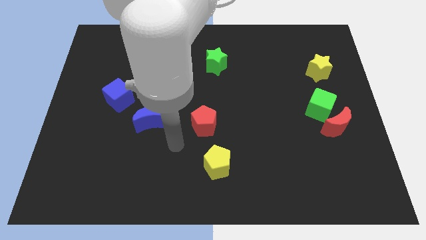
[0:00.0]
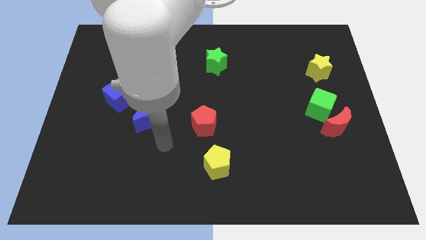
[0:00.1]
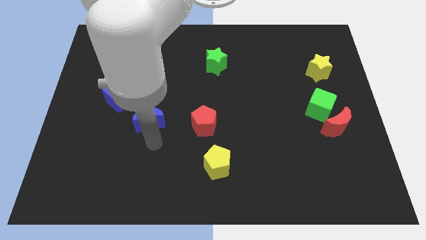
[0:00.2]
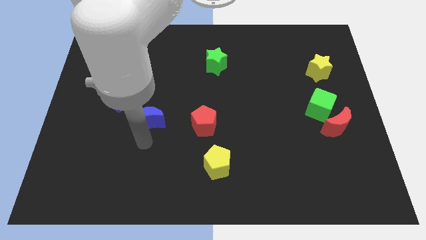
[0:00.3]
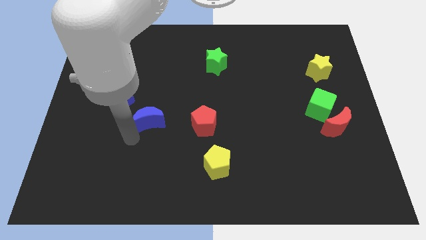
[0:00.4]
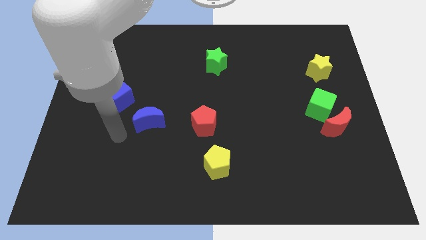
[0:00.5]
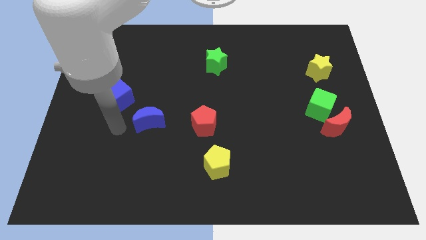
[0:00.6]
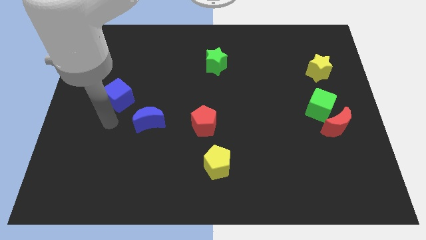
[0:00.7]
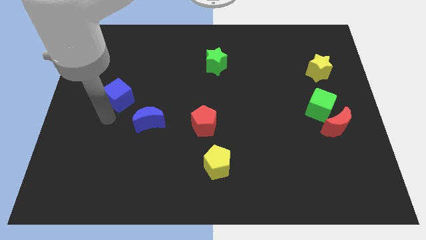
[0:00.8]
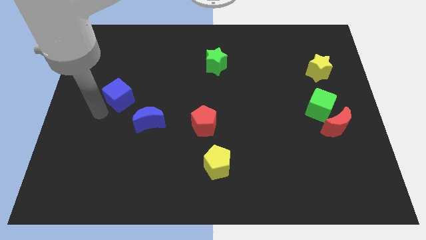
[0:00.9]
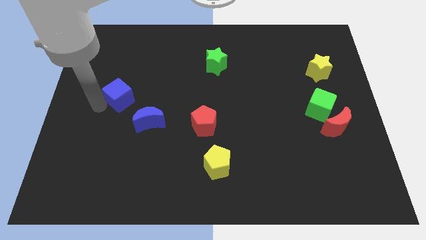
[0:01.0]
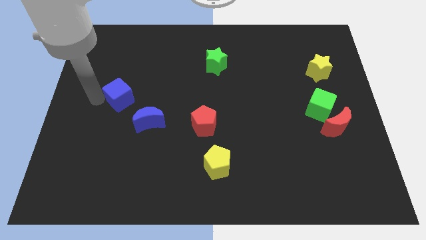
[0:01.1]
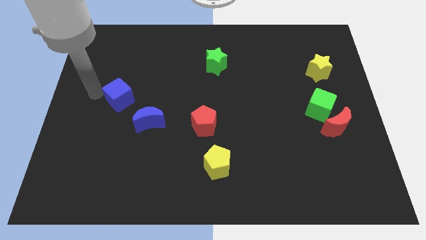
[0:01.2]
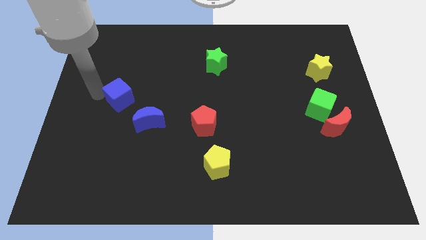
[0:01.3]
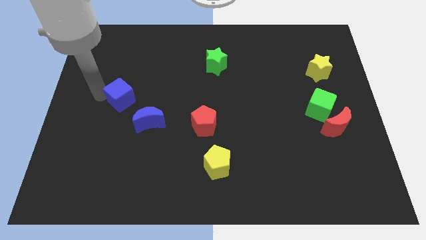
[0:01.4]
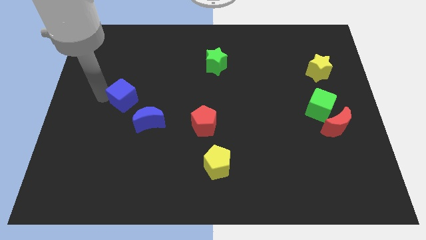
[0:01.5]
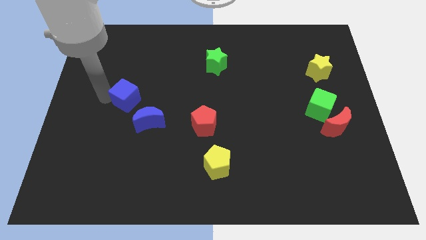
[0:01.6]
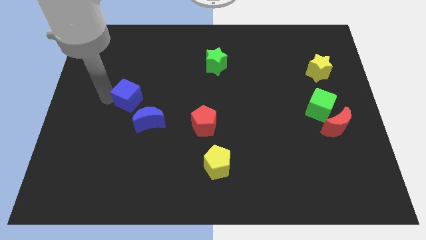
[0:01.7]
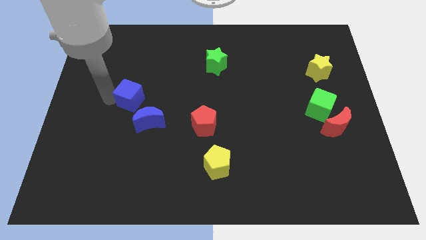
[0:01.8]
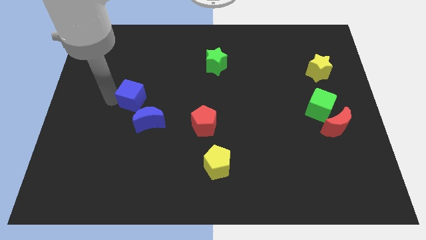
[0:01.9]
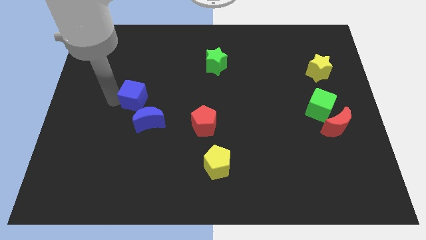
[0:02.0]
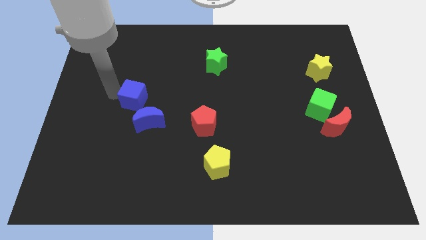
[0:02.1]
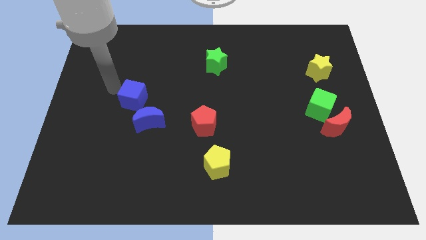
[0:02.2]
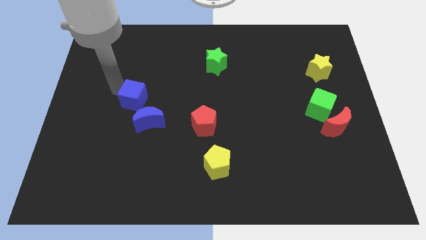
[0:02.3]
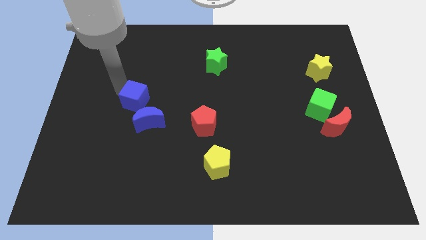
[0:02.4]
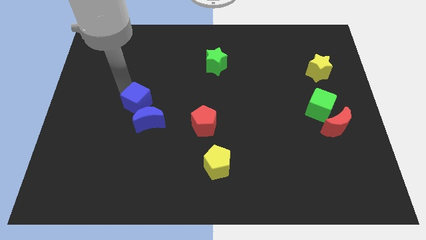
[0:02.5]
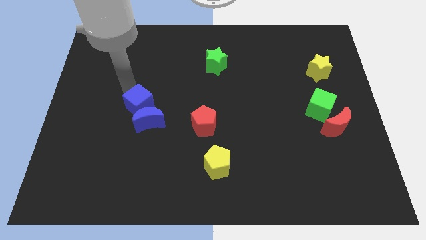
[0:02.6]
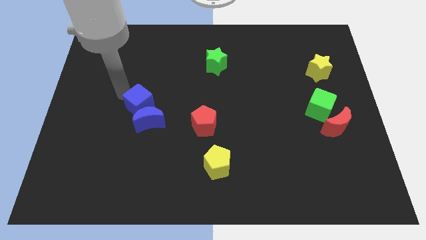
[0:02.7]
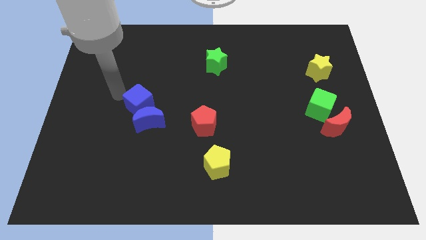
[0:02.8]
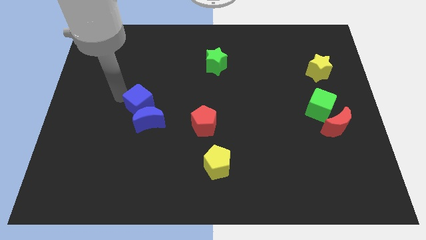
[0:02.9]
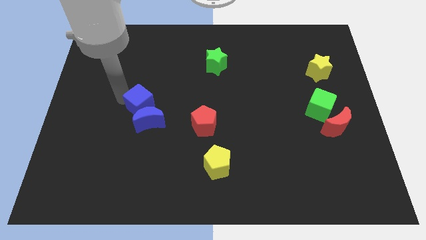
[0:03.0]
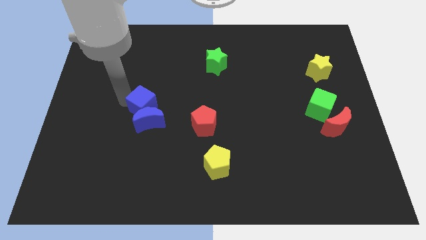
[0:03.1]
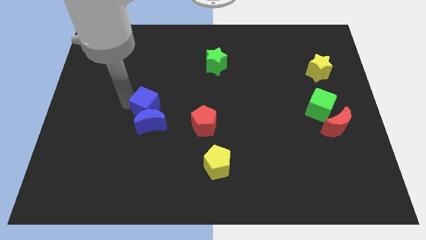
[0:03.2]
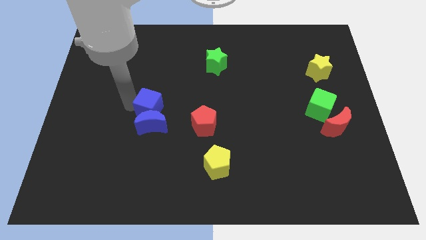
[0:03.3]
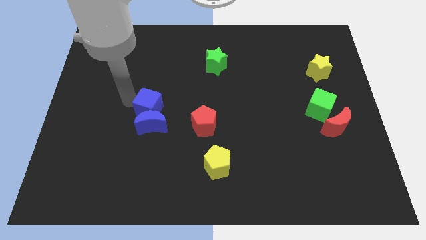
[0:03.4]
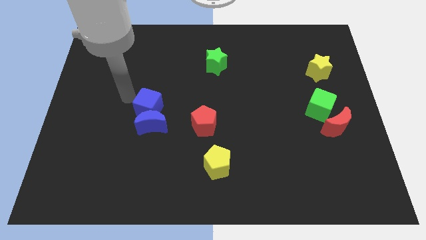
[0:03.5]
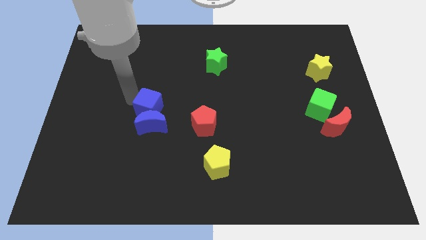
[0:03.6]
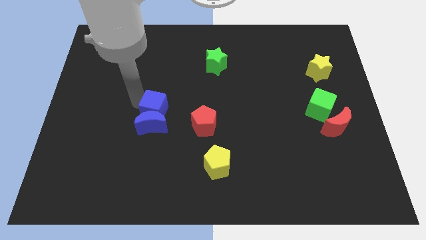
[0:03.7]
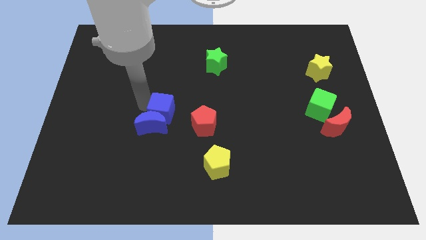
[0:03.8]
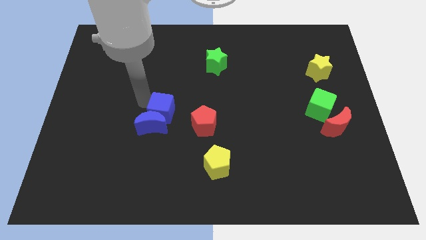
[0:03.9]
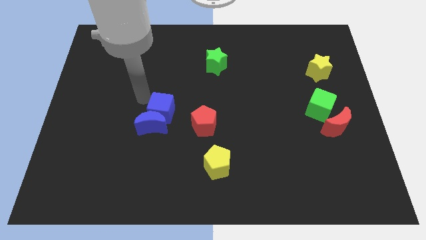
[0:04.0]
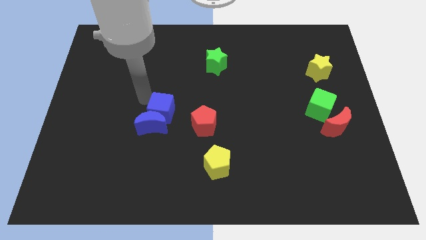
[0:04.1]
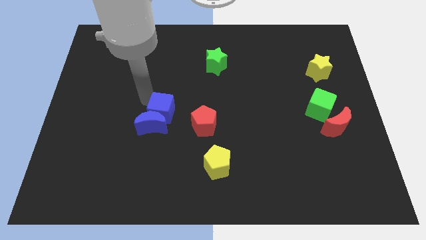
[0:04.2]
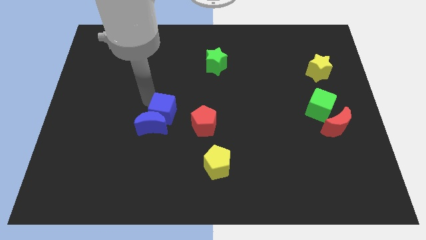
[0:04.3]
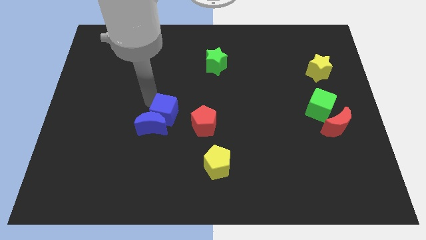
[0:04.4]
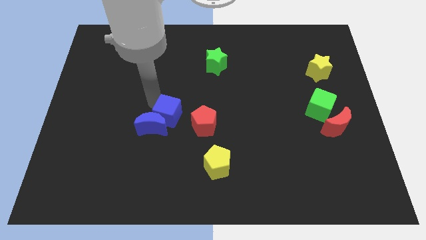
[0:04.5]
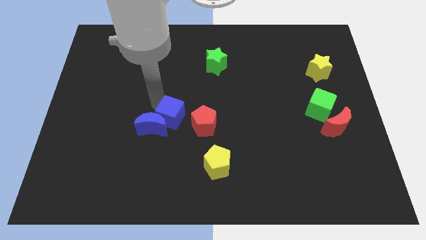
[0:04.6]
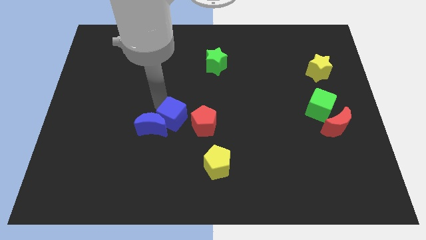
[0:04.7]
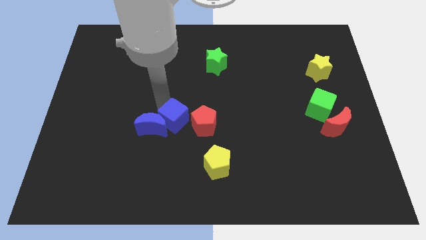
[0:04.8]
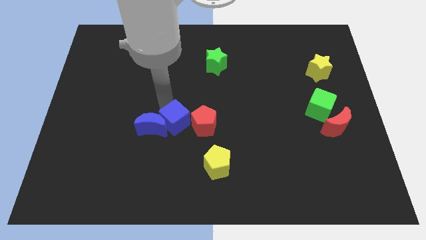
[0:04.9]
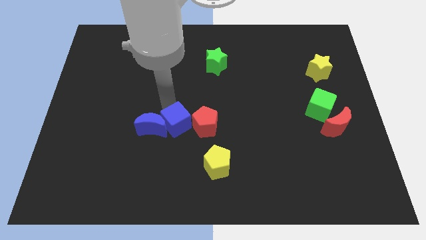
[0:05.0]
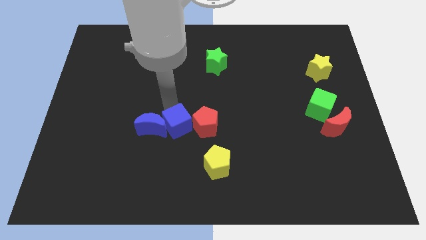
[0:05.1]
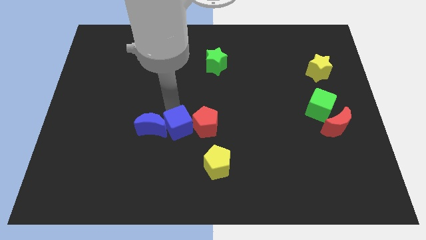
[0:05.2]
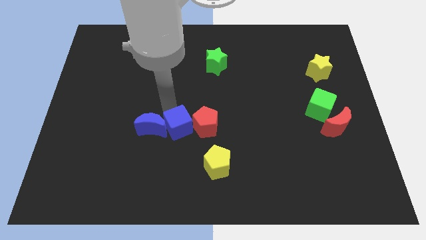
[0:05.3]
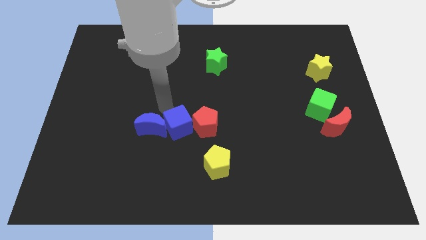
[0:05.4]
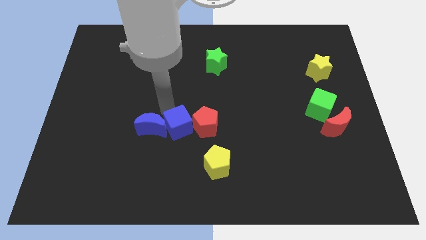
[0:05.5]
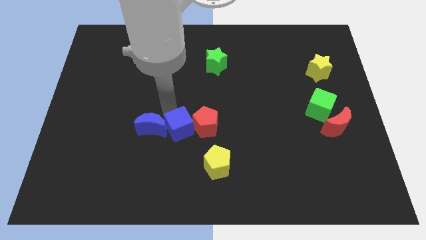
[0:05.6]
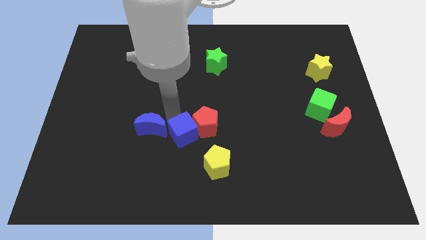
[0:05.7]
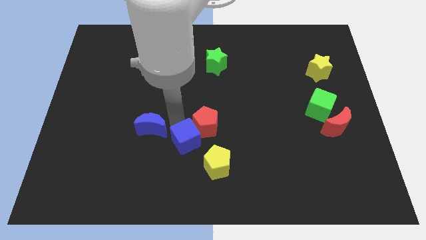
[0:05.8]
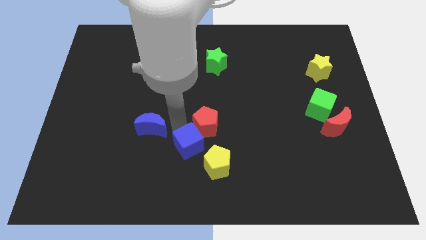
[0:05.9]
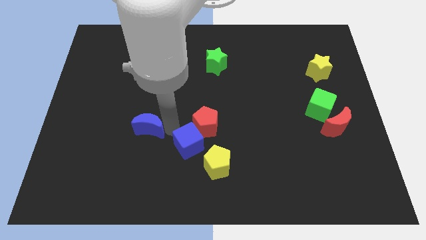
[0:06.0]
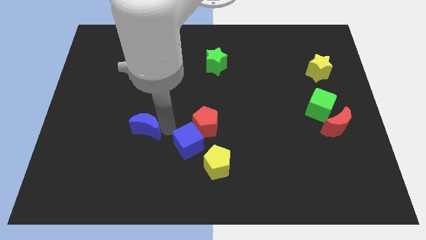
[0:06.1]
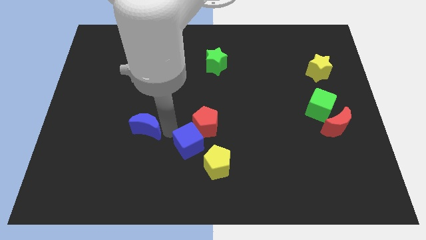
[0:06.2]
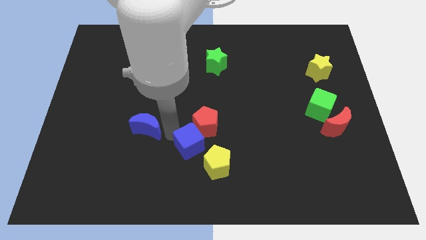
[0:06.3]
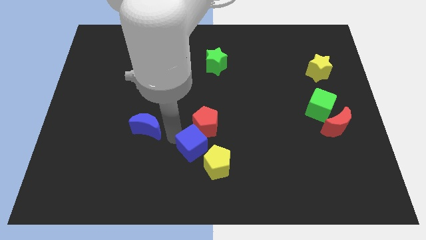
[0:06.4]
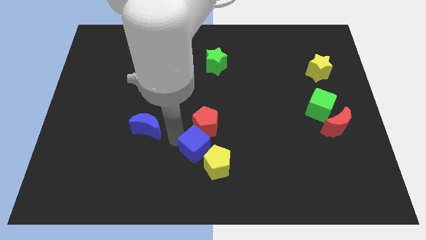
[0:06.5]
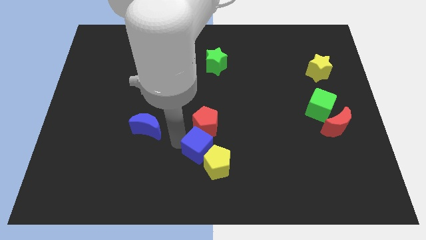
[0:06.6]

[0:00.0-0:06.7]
push the blue cube towards the yellow pentagon
